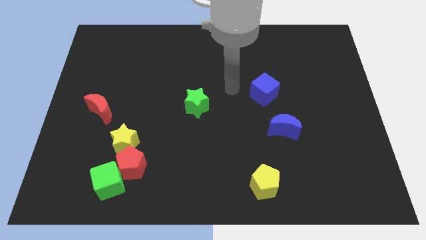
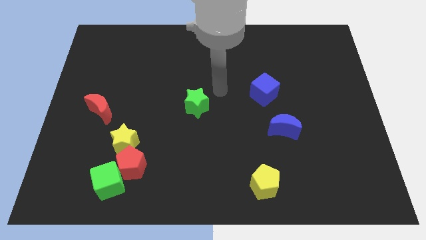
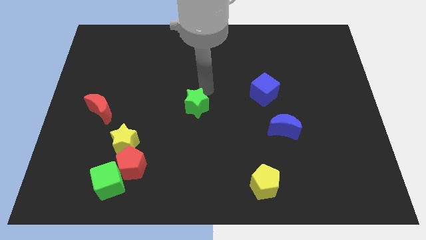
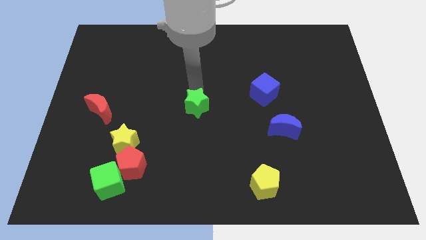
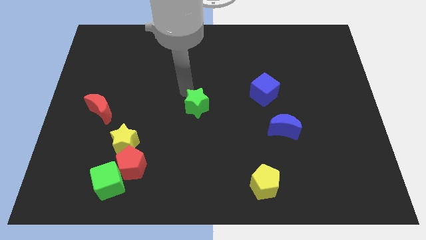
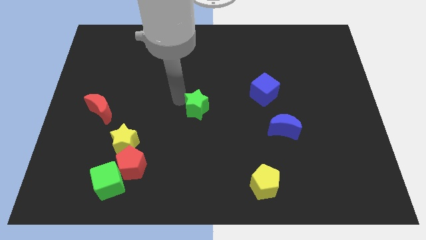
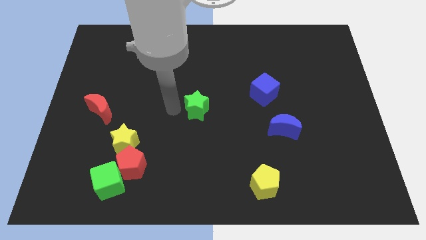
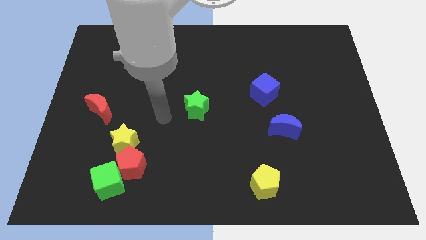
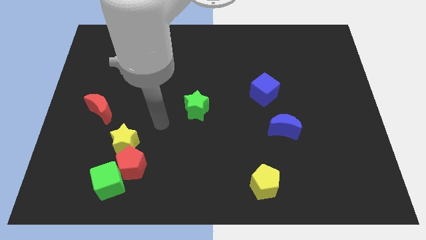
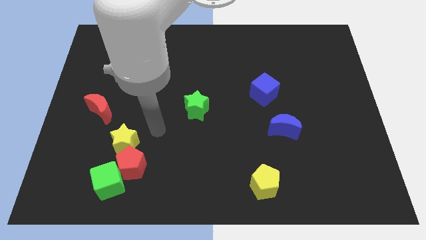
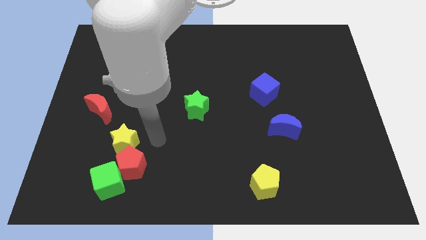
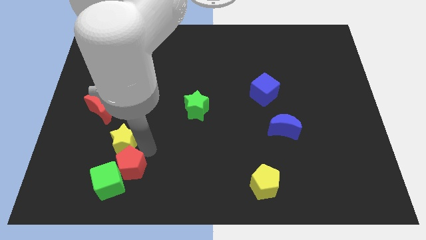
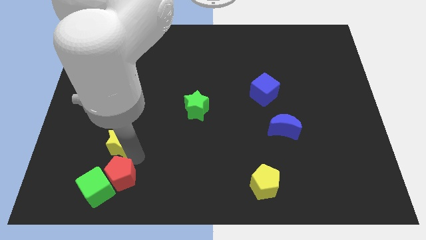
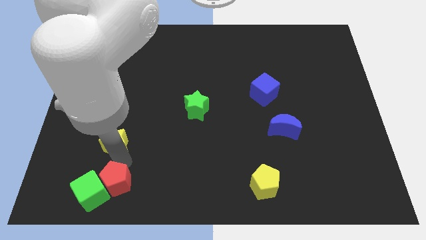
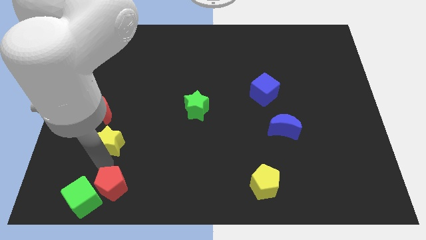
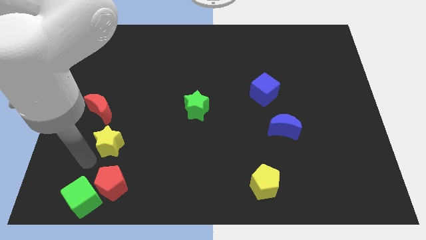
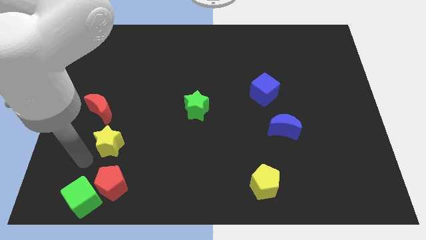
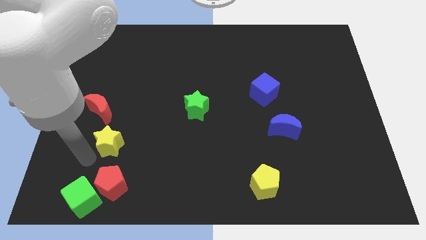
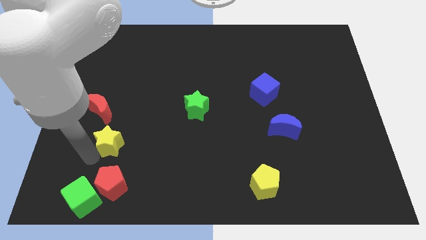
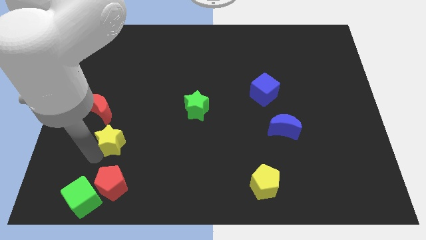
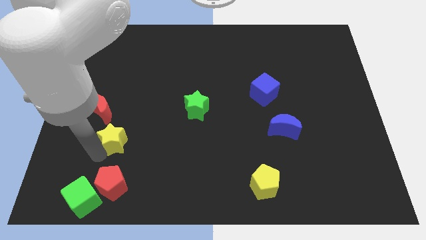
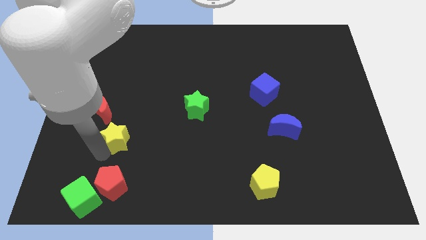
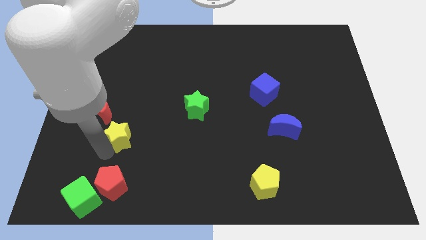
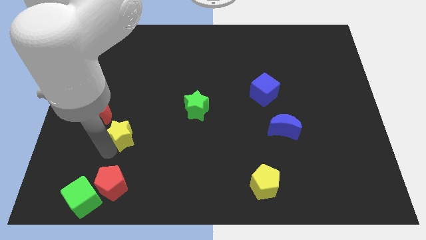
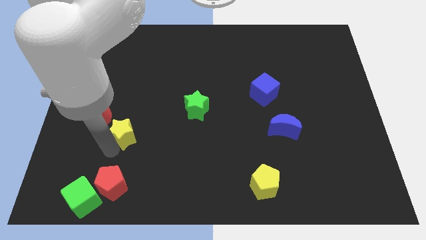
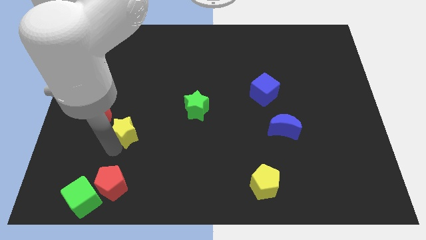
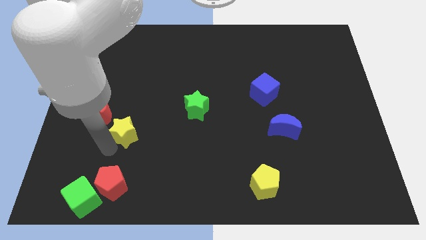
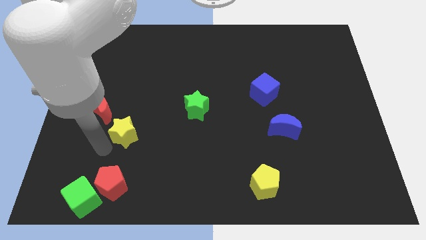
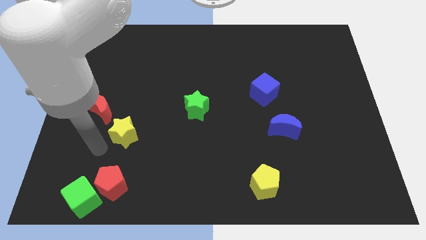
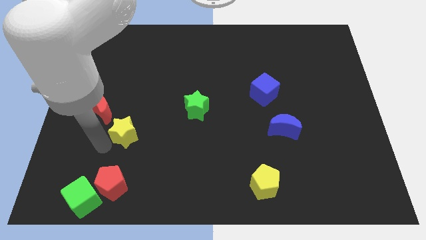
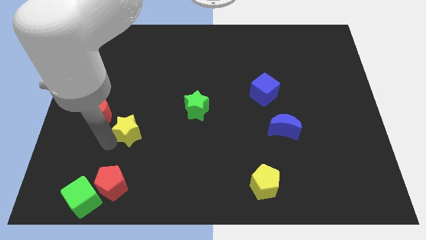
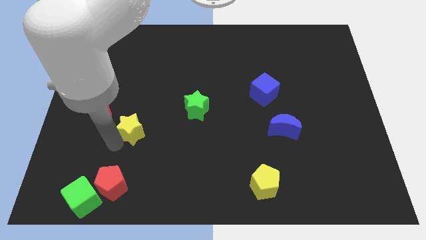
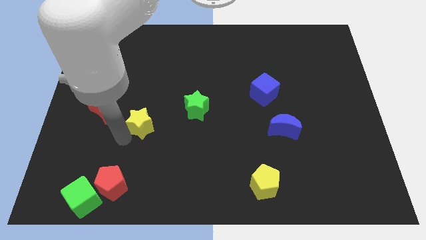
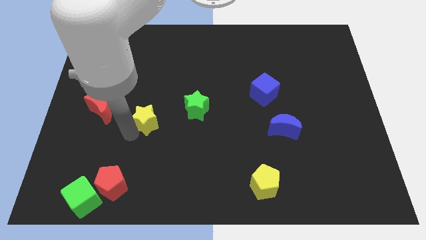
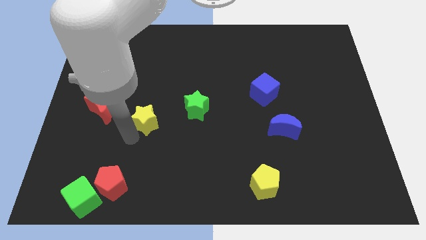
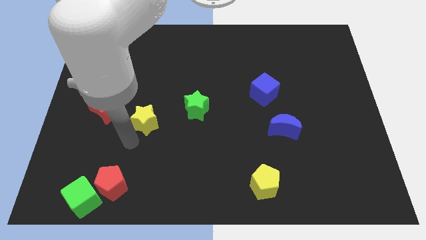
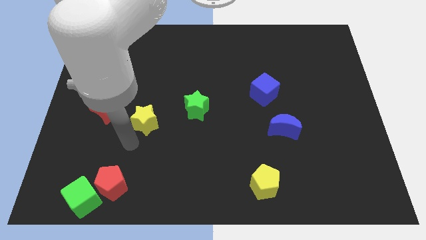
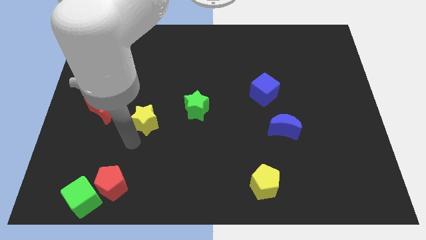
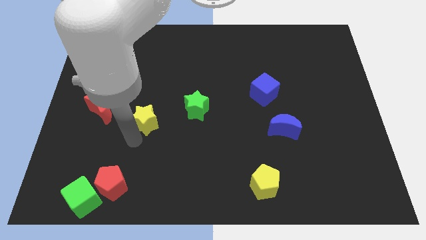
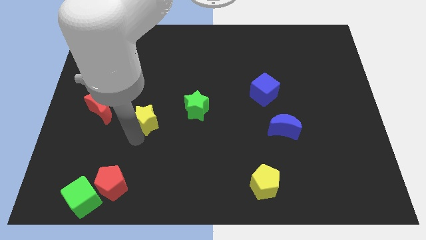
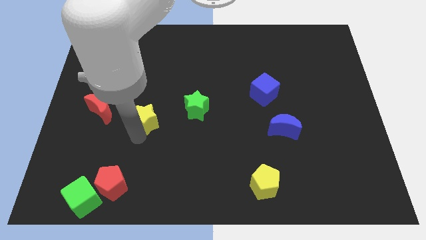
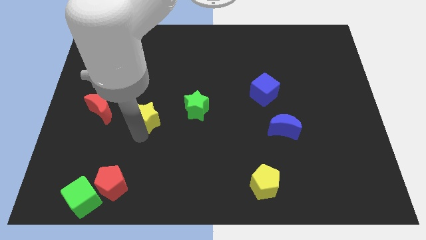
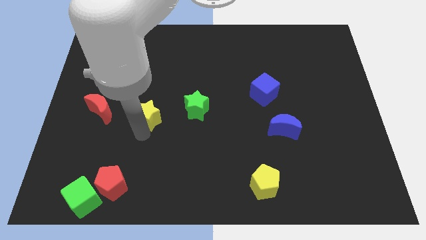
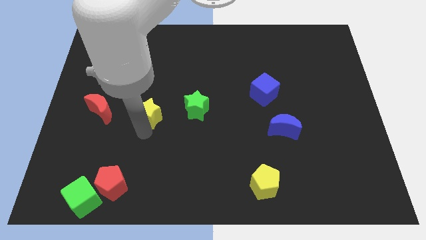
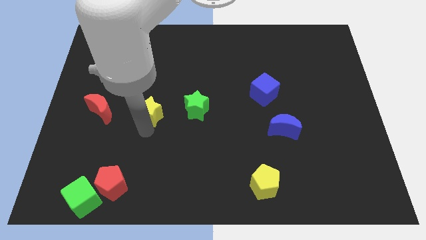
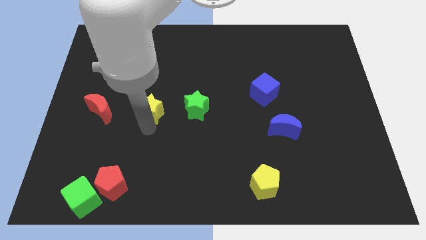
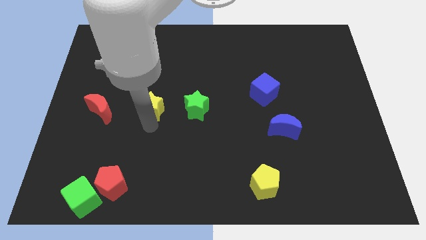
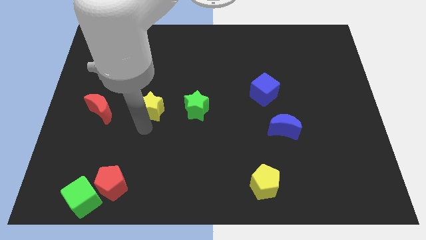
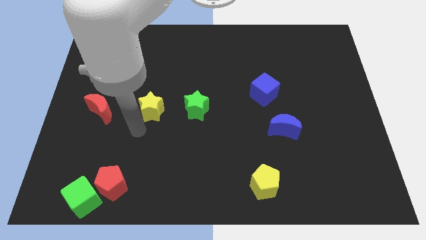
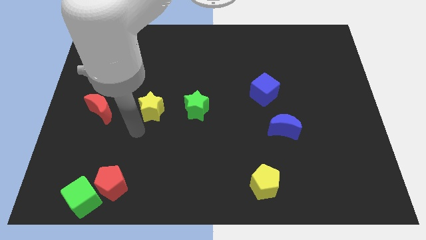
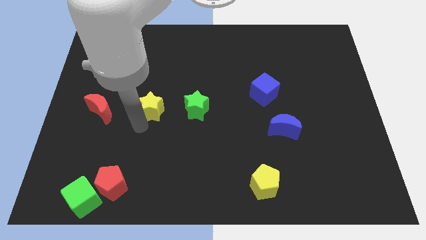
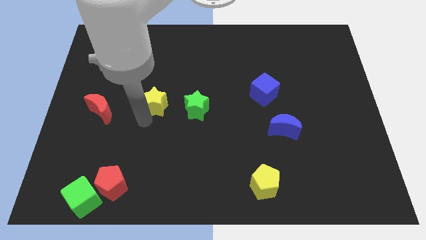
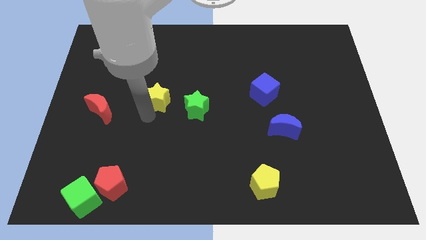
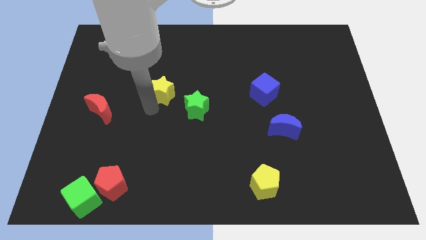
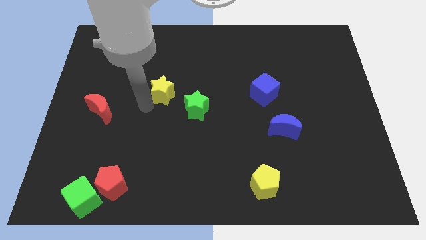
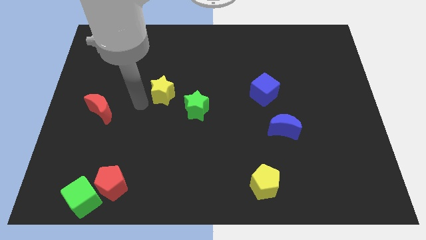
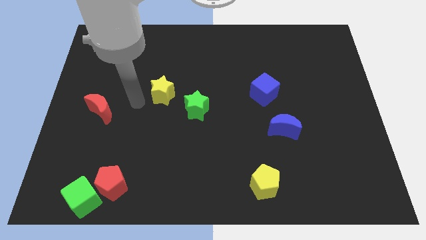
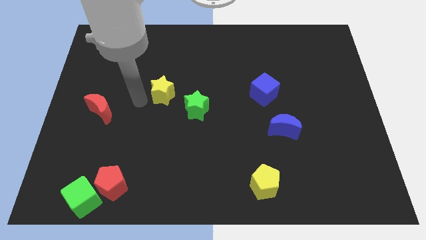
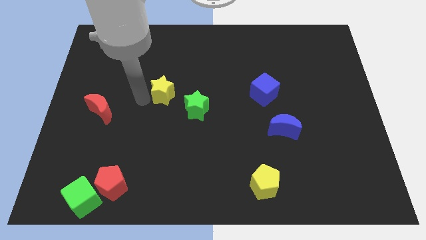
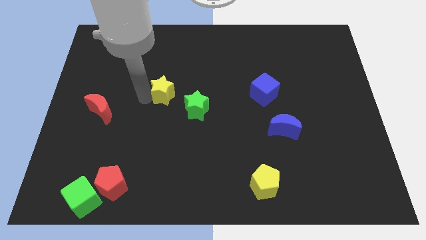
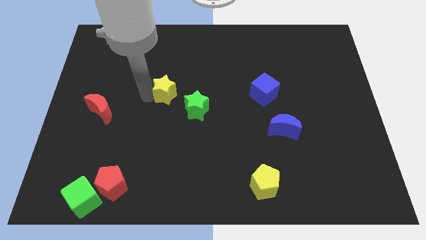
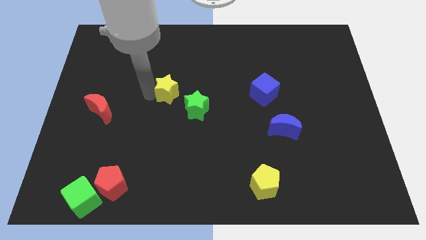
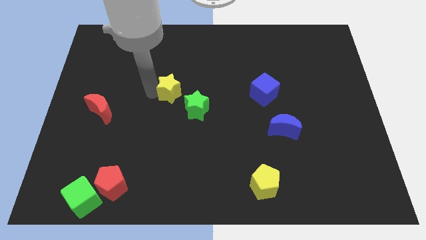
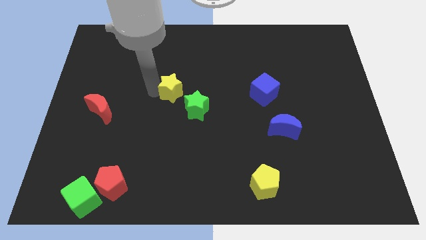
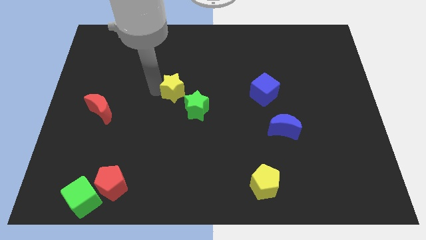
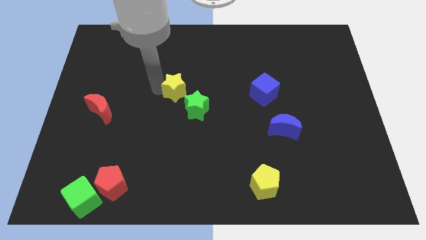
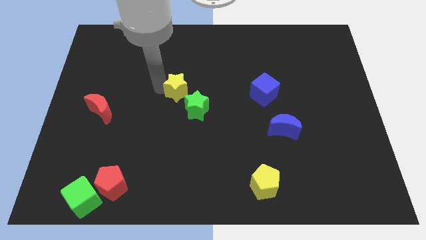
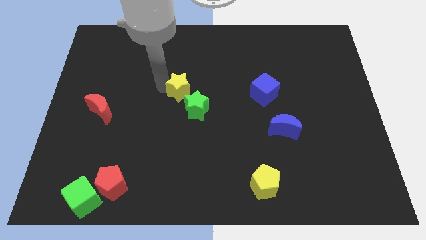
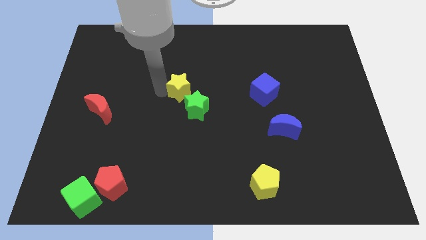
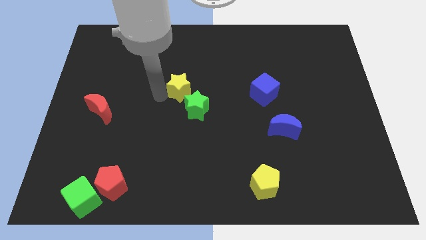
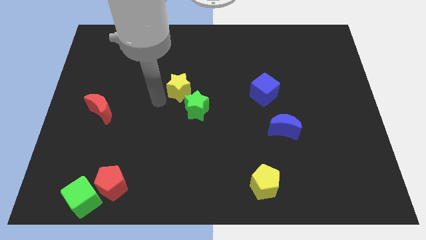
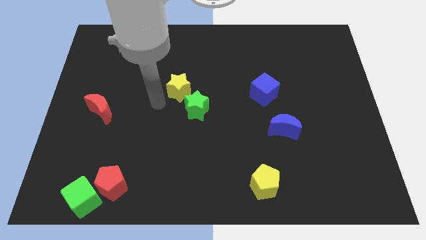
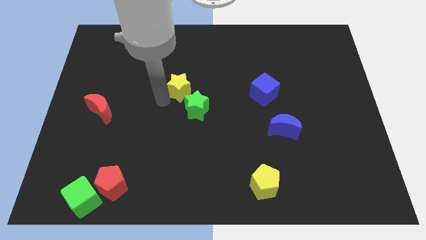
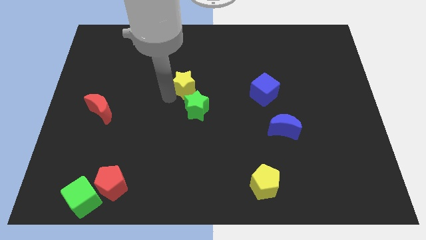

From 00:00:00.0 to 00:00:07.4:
push the yellow star up and to the right

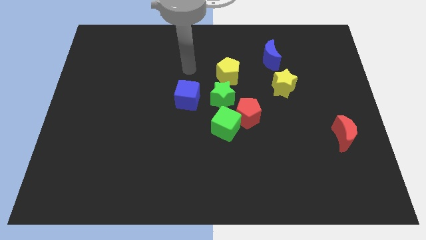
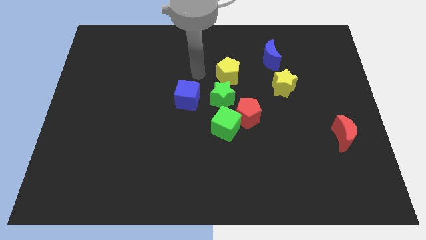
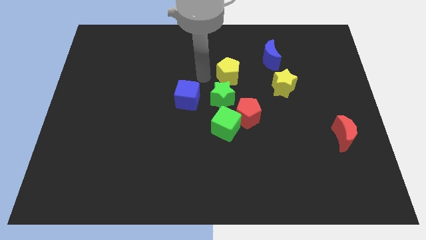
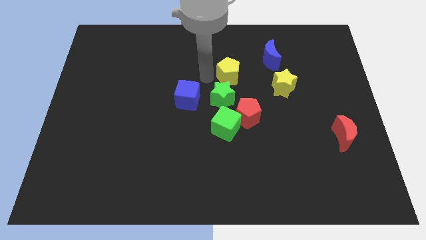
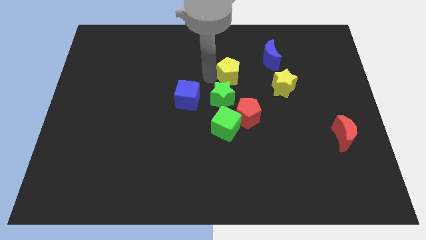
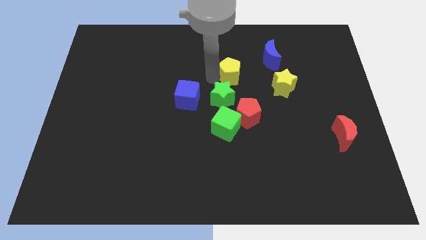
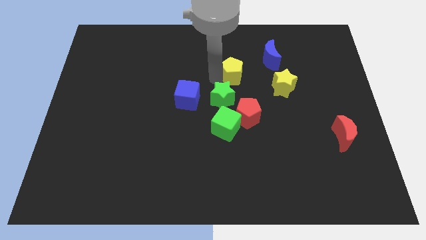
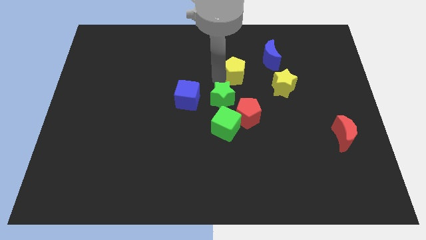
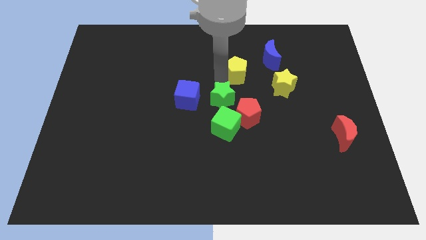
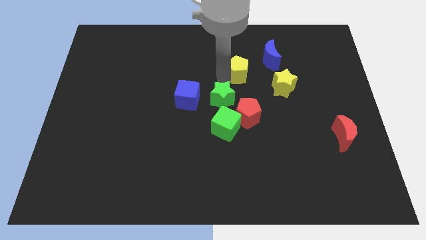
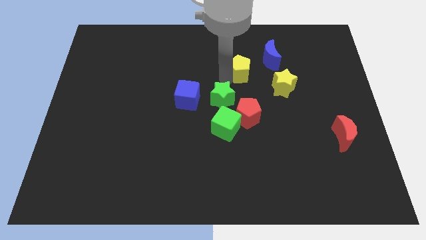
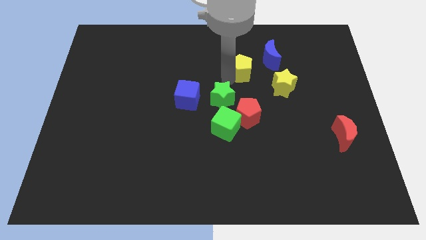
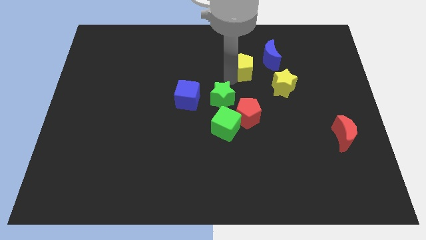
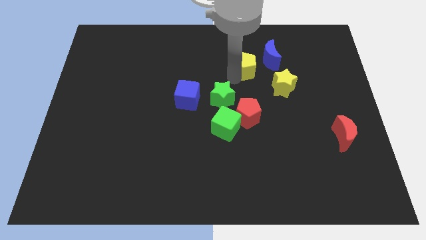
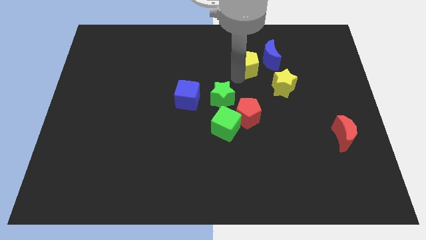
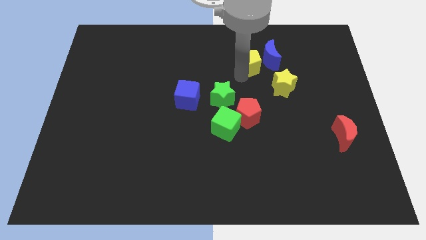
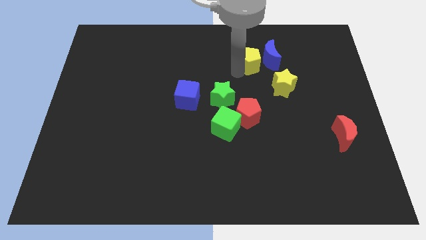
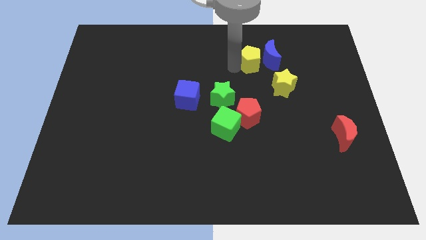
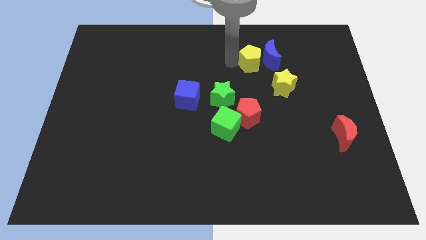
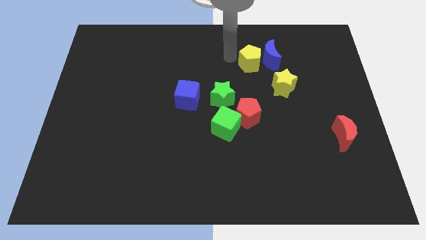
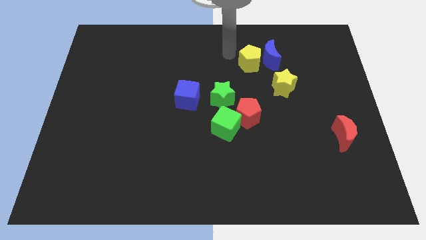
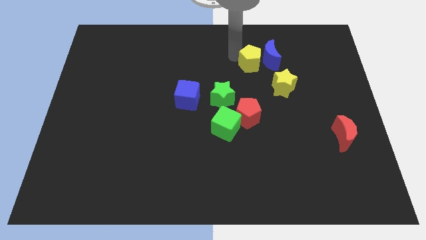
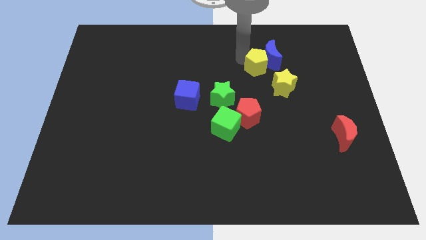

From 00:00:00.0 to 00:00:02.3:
slightly move the yellow pentagon to the right
